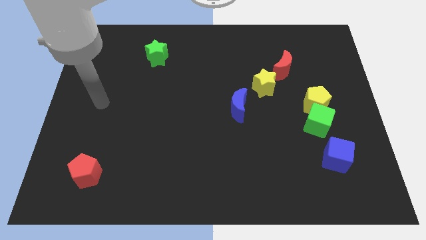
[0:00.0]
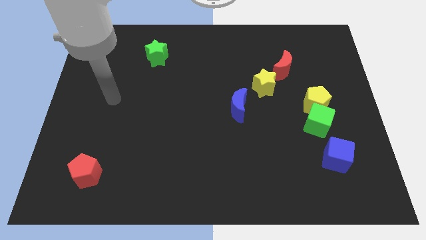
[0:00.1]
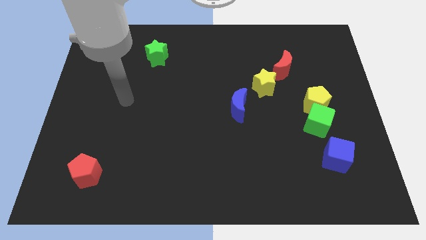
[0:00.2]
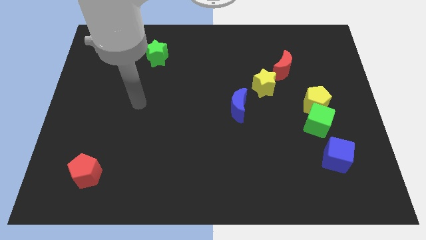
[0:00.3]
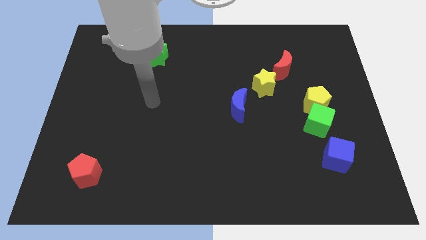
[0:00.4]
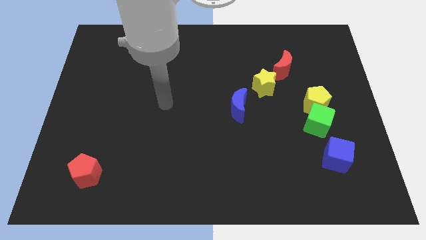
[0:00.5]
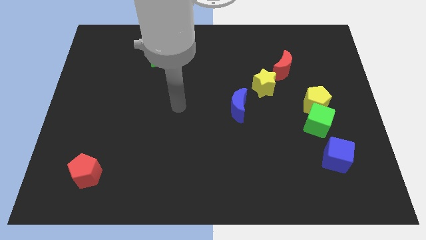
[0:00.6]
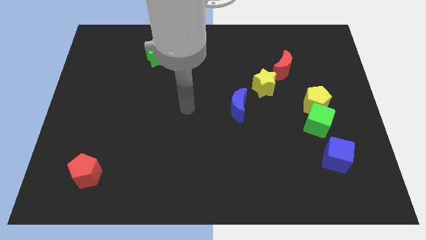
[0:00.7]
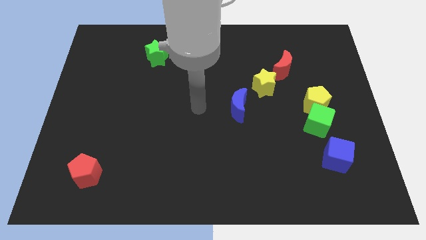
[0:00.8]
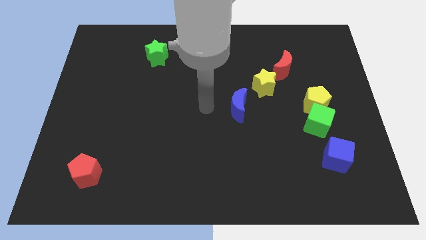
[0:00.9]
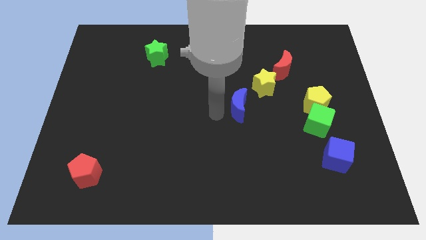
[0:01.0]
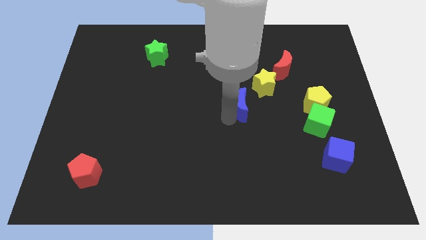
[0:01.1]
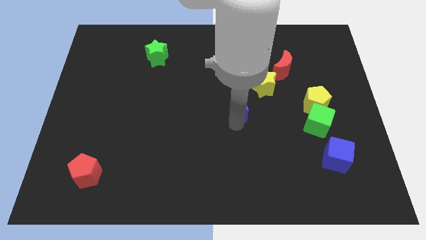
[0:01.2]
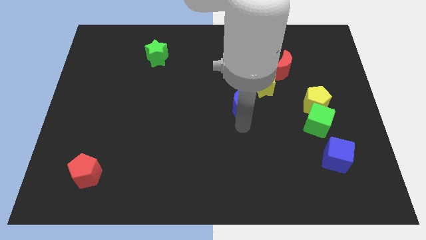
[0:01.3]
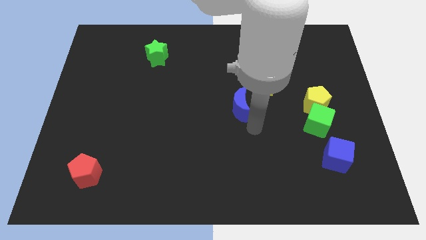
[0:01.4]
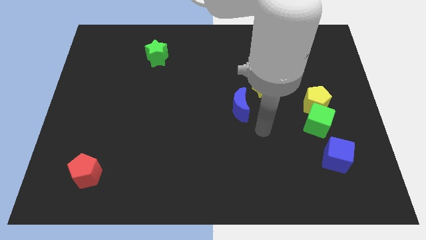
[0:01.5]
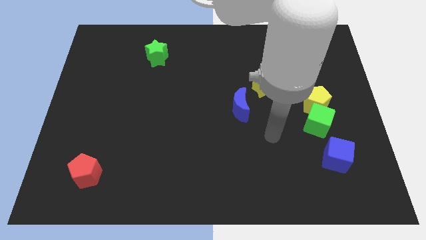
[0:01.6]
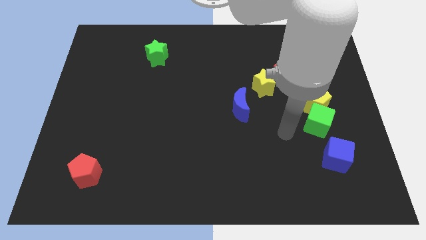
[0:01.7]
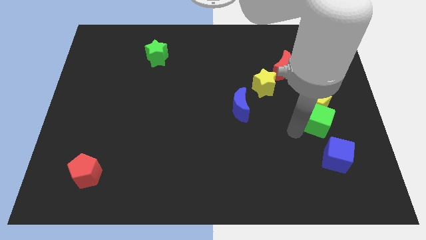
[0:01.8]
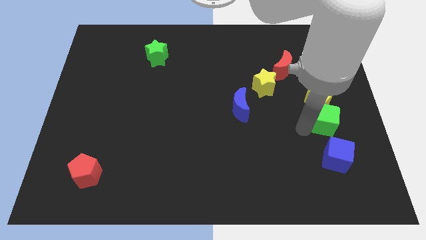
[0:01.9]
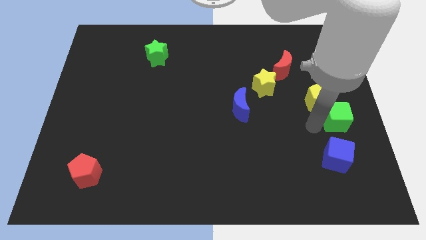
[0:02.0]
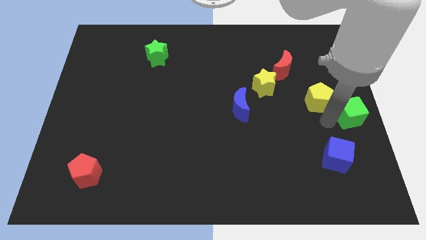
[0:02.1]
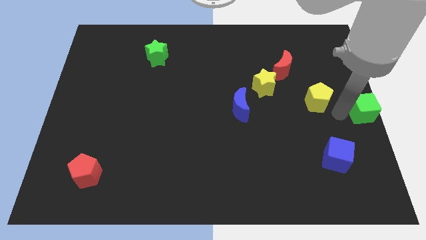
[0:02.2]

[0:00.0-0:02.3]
move the yellow pentagon away from the green cube

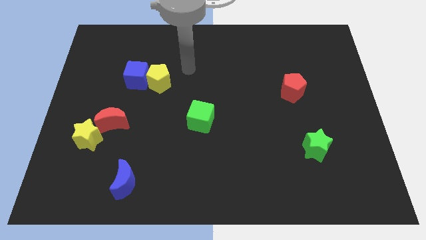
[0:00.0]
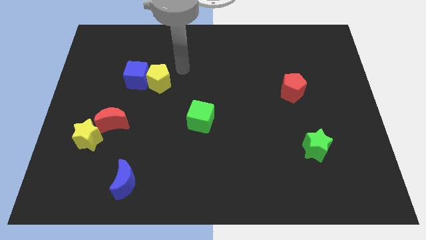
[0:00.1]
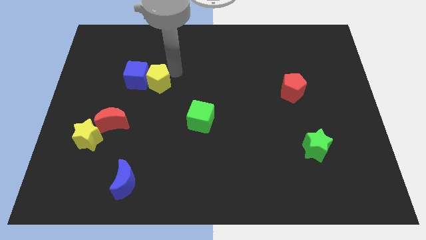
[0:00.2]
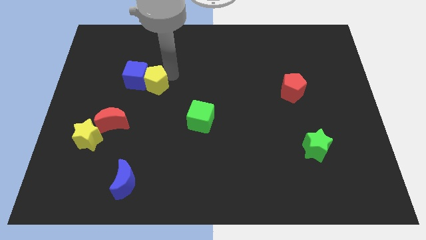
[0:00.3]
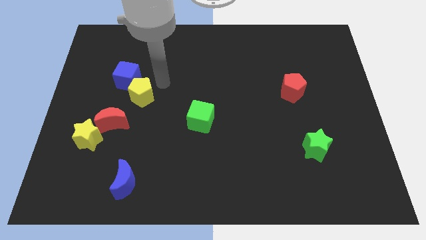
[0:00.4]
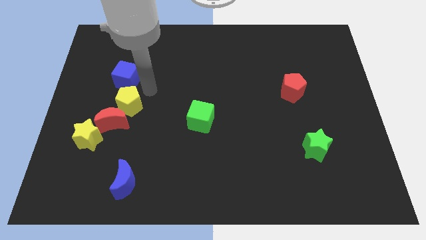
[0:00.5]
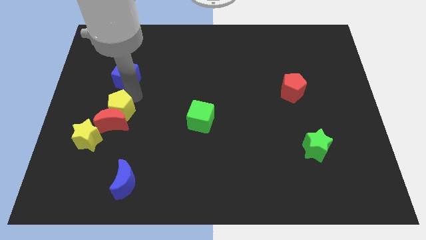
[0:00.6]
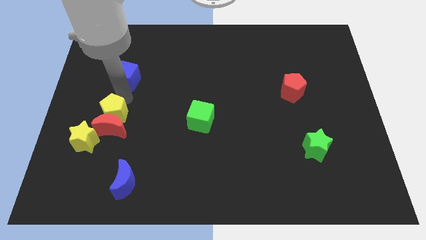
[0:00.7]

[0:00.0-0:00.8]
pull the blue cube apart from the yellow pentagon

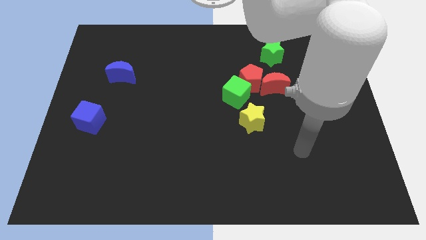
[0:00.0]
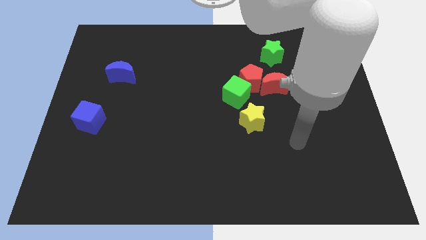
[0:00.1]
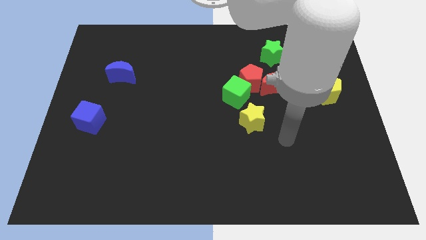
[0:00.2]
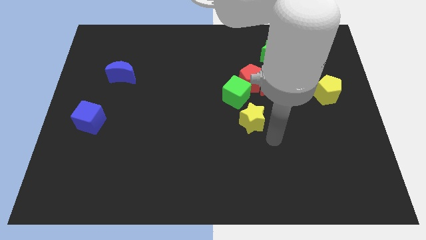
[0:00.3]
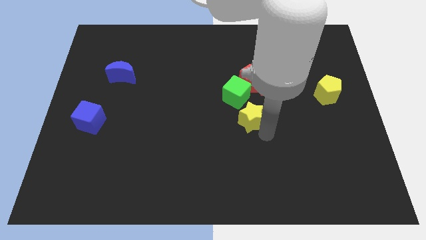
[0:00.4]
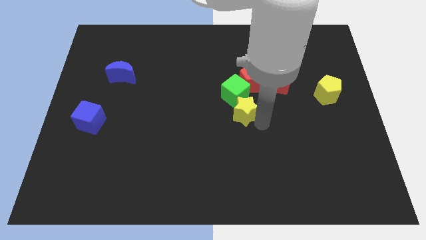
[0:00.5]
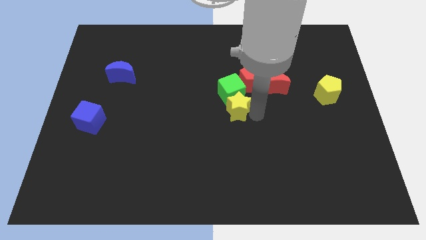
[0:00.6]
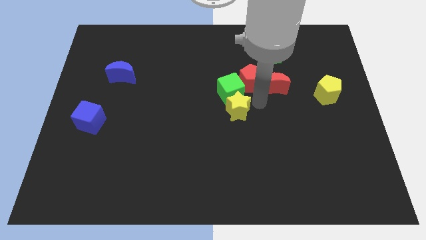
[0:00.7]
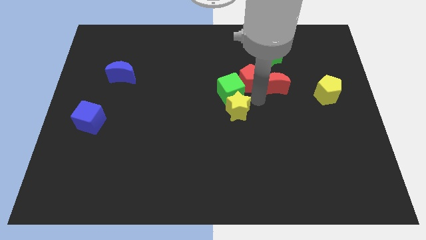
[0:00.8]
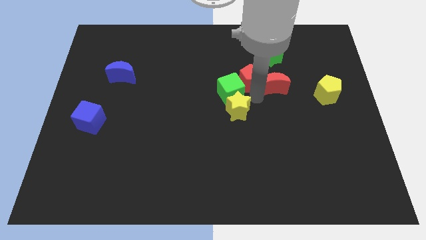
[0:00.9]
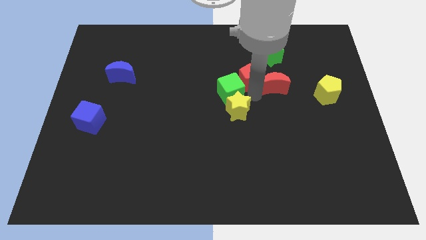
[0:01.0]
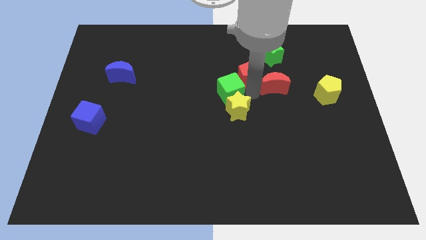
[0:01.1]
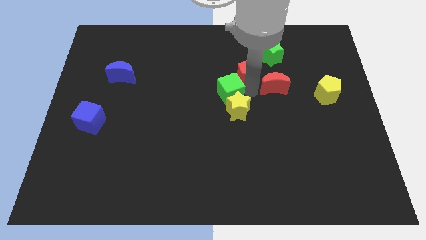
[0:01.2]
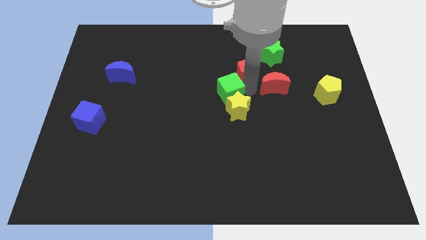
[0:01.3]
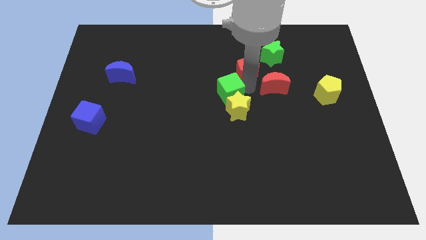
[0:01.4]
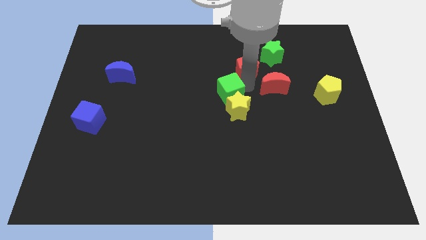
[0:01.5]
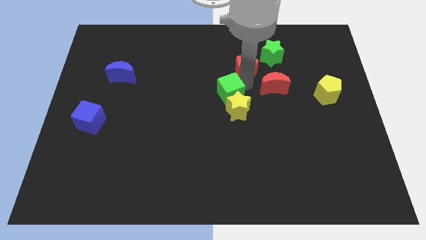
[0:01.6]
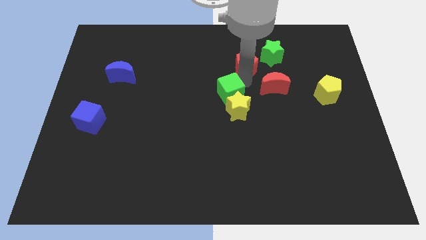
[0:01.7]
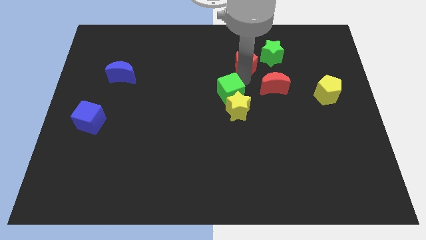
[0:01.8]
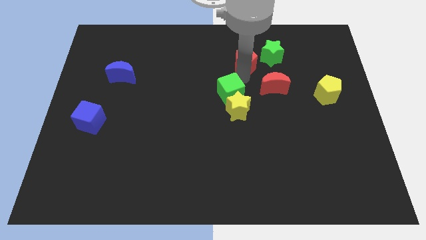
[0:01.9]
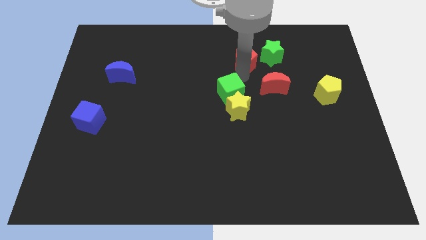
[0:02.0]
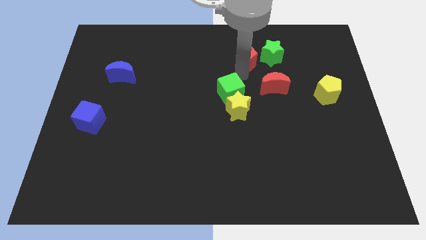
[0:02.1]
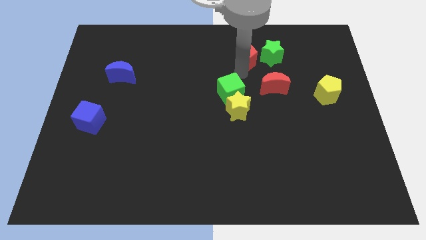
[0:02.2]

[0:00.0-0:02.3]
separate the red pentagon from the red moon and green cube

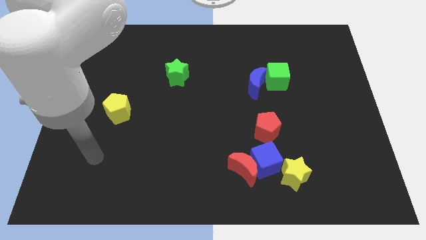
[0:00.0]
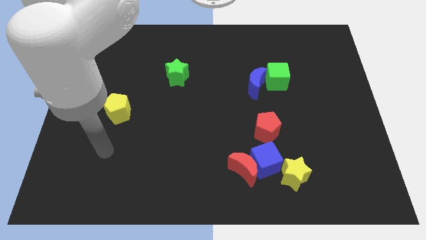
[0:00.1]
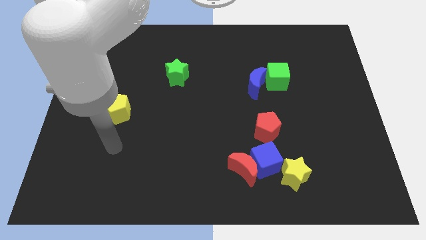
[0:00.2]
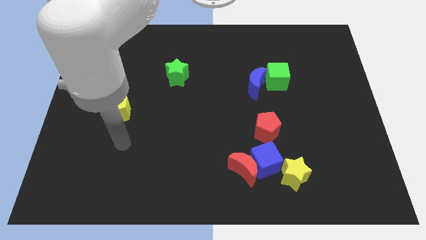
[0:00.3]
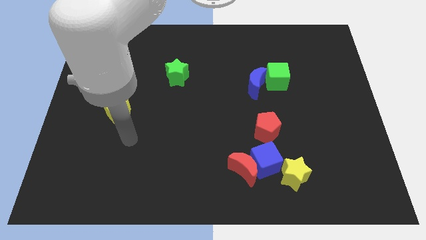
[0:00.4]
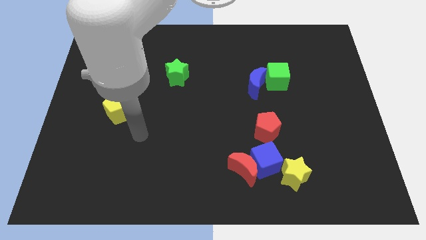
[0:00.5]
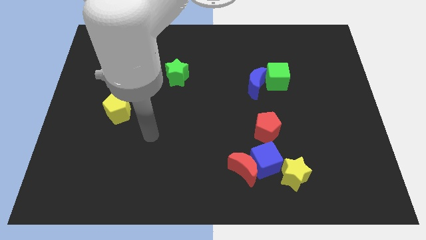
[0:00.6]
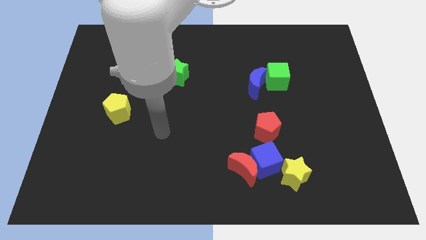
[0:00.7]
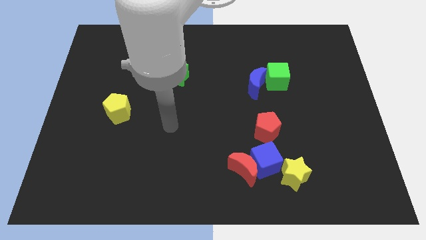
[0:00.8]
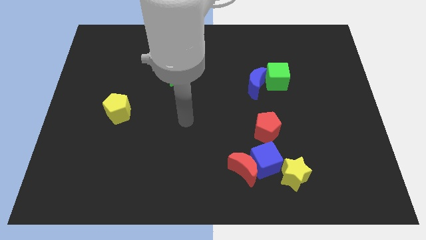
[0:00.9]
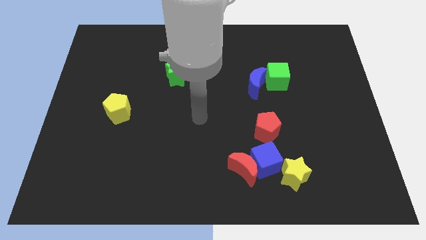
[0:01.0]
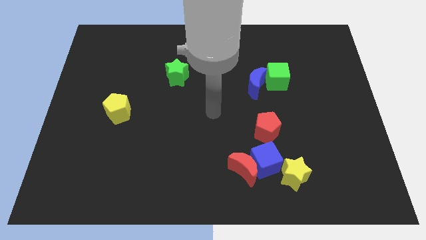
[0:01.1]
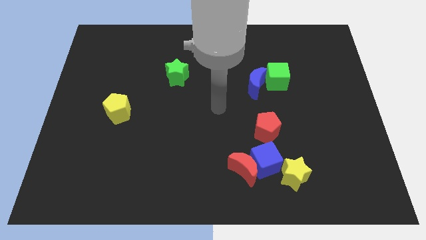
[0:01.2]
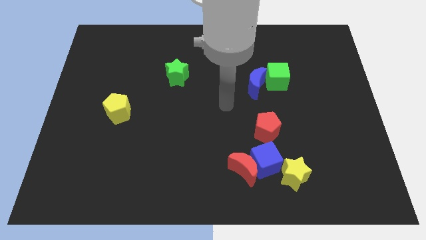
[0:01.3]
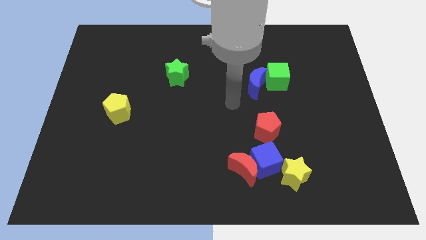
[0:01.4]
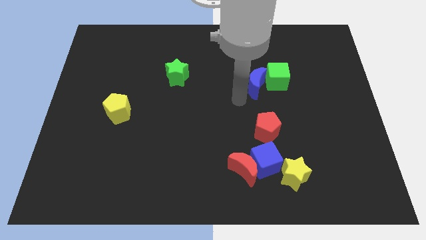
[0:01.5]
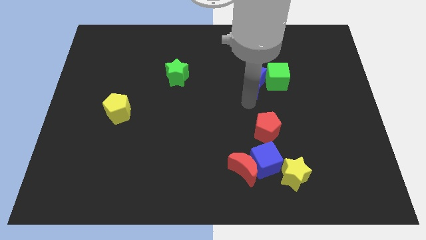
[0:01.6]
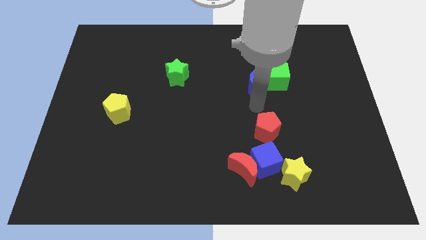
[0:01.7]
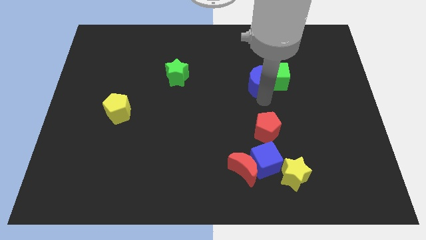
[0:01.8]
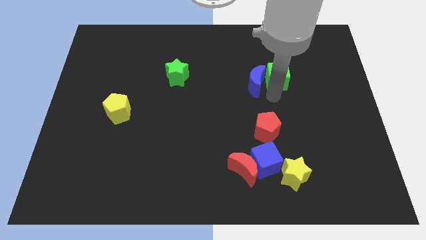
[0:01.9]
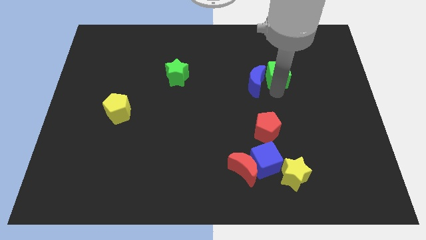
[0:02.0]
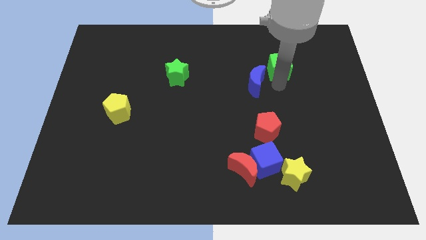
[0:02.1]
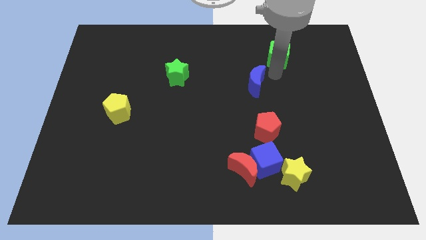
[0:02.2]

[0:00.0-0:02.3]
separate the blue moon from the green cube

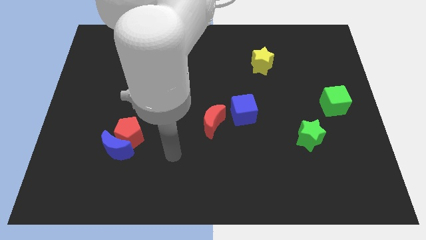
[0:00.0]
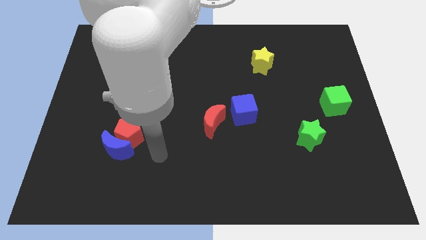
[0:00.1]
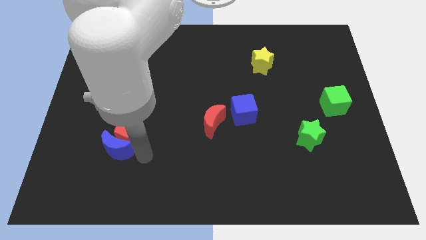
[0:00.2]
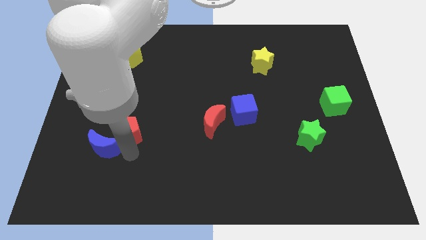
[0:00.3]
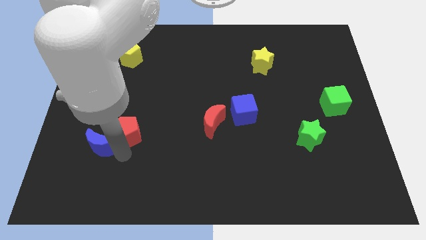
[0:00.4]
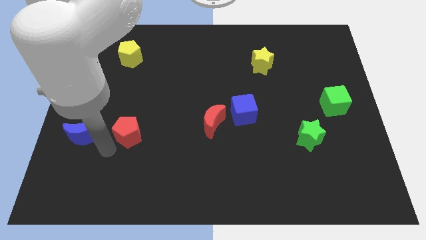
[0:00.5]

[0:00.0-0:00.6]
separate the red pentagon from the blue moon

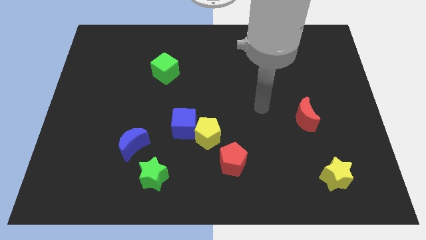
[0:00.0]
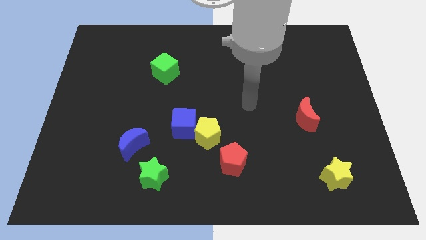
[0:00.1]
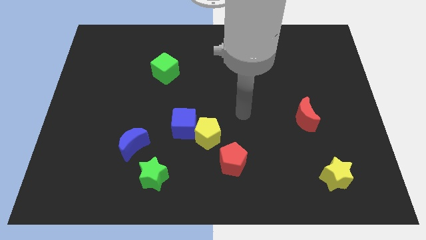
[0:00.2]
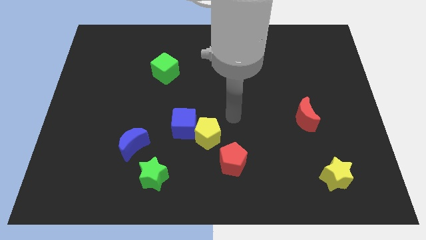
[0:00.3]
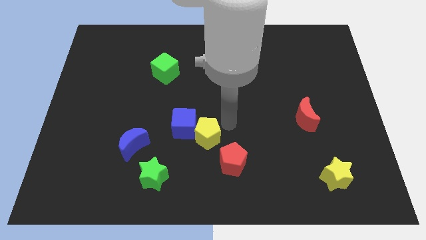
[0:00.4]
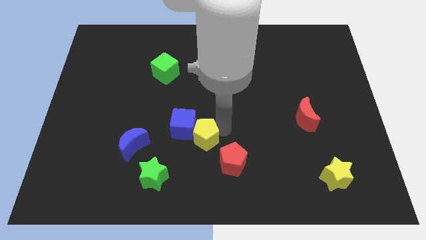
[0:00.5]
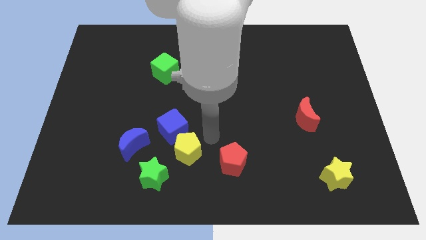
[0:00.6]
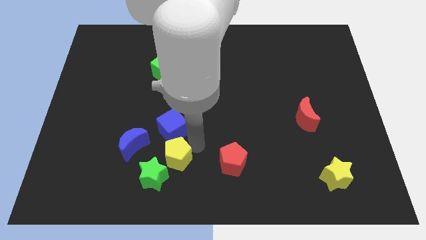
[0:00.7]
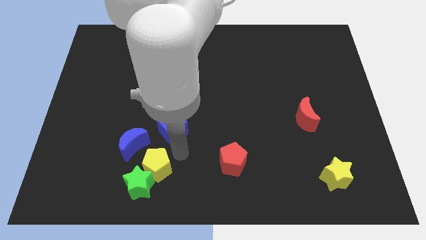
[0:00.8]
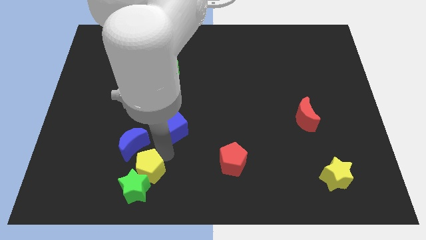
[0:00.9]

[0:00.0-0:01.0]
separate the blue cube from the yellow pentagon
